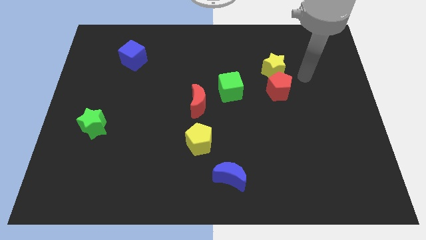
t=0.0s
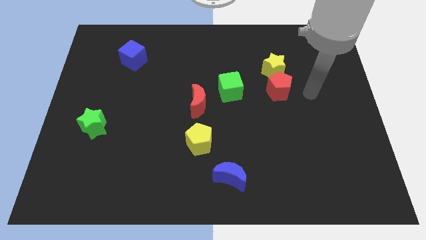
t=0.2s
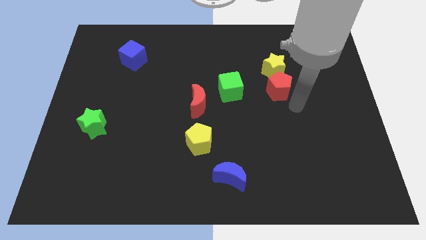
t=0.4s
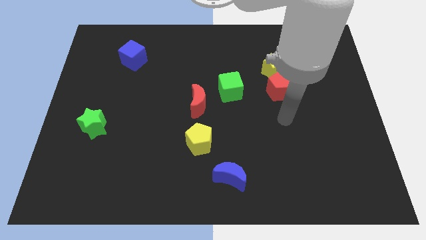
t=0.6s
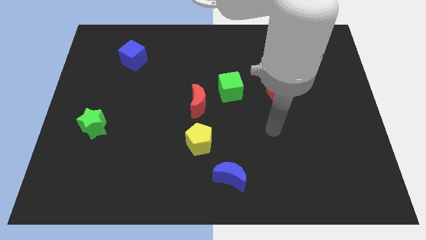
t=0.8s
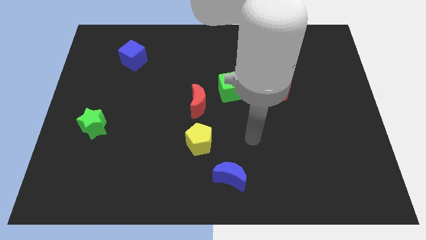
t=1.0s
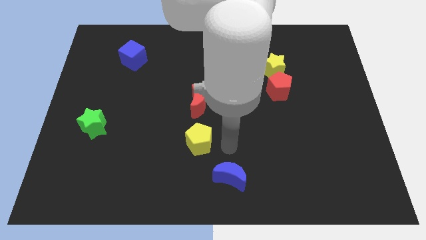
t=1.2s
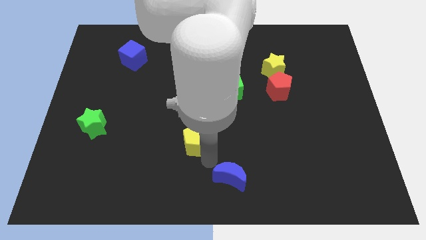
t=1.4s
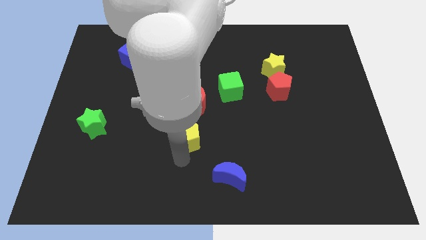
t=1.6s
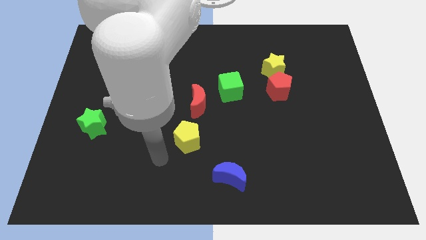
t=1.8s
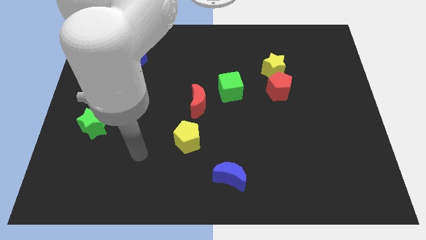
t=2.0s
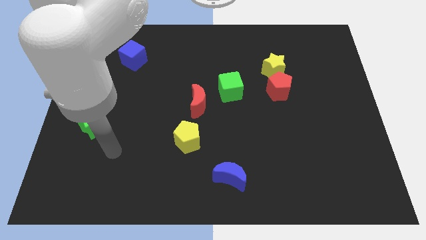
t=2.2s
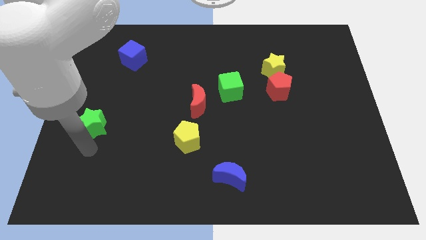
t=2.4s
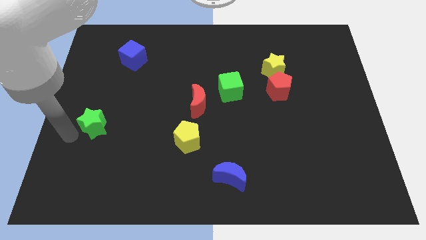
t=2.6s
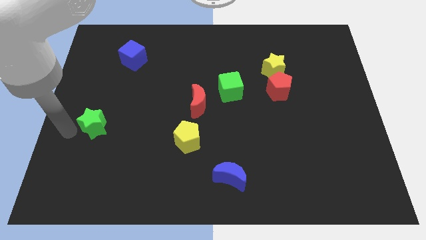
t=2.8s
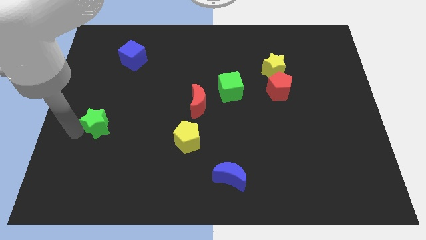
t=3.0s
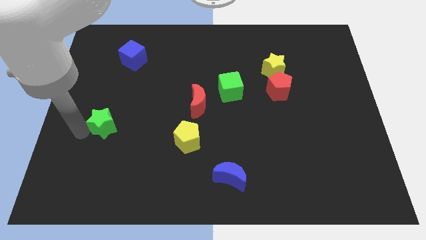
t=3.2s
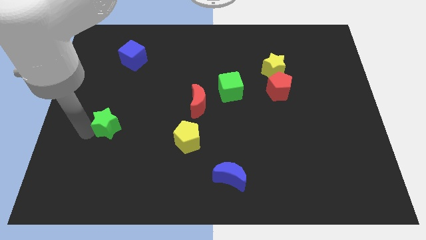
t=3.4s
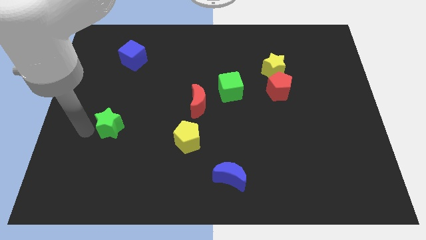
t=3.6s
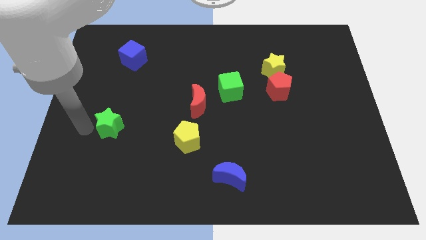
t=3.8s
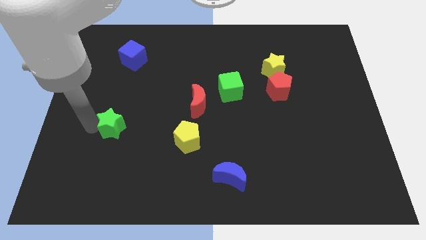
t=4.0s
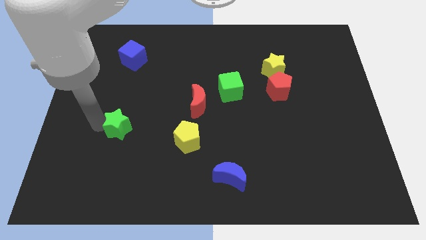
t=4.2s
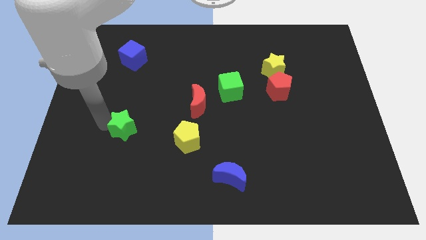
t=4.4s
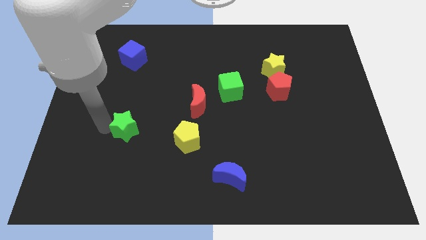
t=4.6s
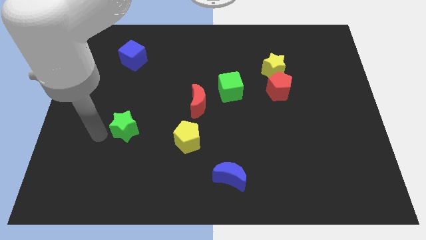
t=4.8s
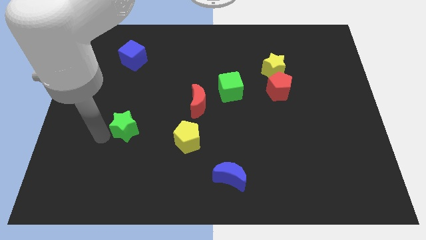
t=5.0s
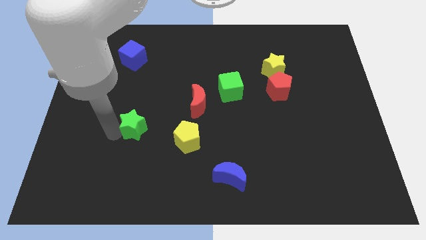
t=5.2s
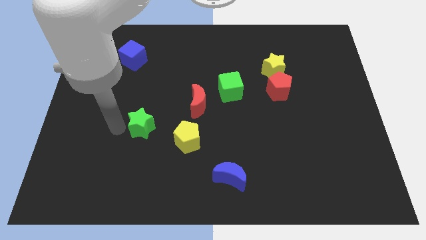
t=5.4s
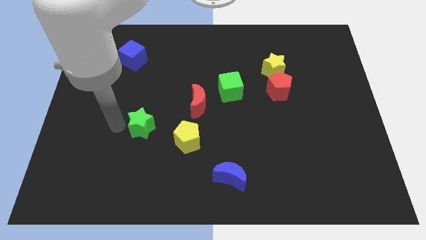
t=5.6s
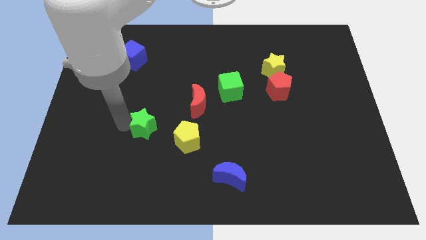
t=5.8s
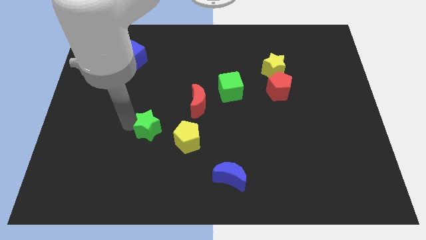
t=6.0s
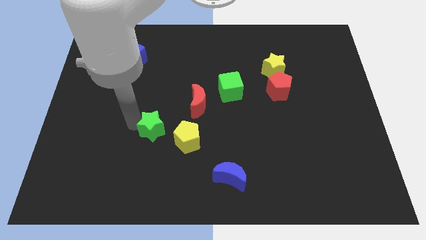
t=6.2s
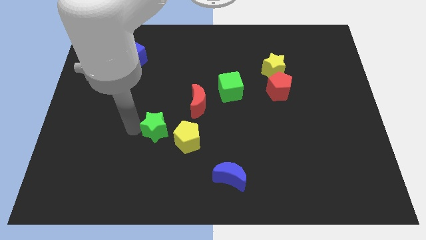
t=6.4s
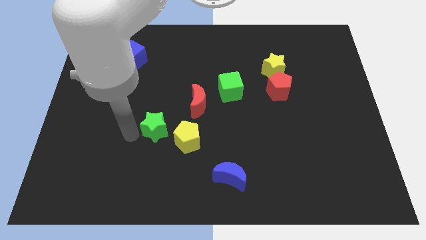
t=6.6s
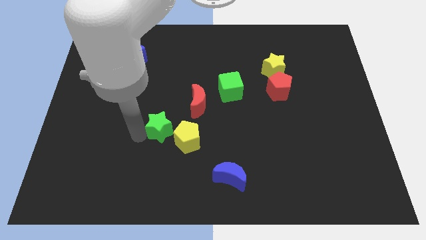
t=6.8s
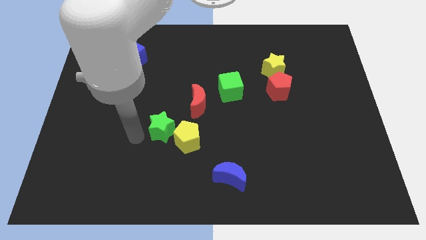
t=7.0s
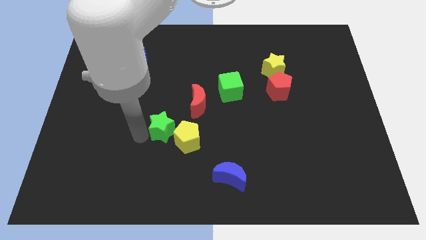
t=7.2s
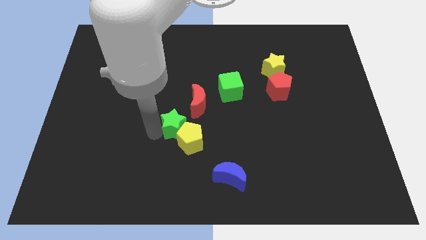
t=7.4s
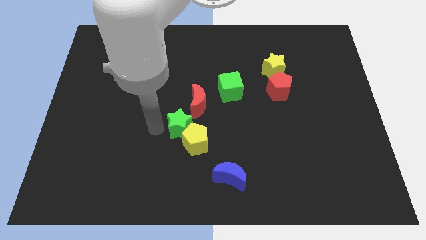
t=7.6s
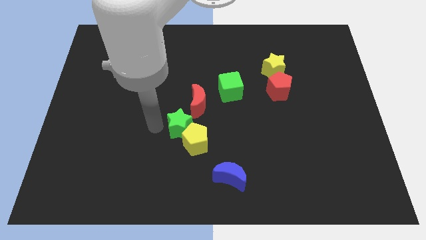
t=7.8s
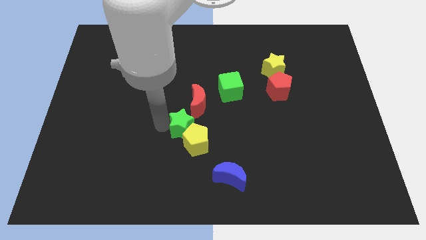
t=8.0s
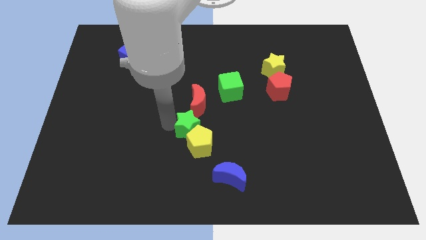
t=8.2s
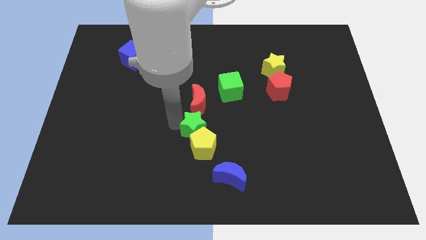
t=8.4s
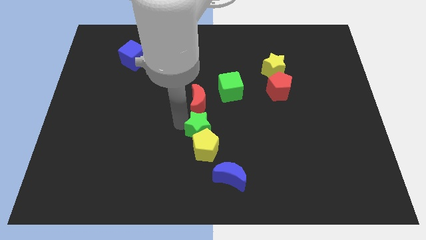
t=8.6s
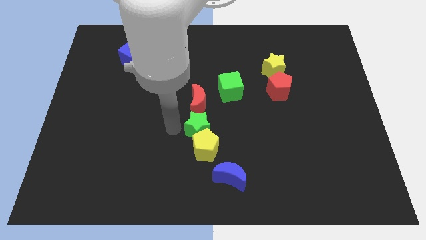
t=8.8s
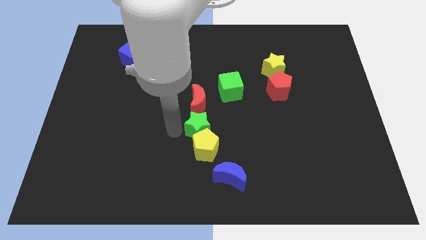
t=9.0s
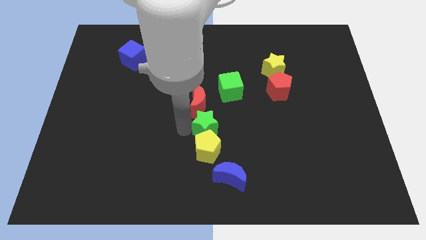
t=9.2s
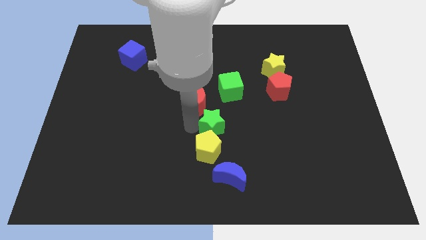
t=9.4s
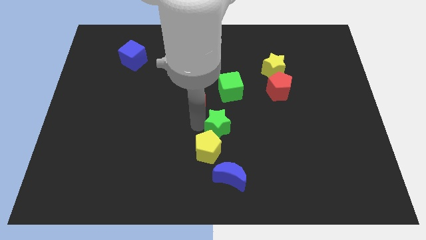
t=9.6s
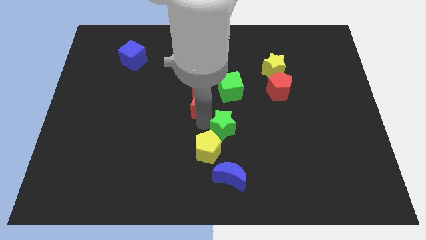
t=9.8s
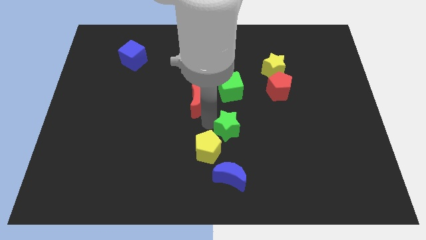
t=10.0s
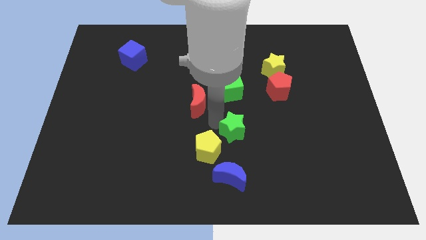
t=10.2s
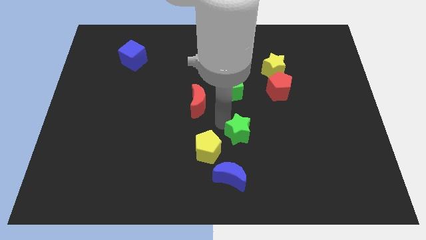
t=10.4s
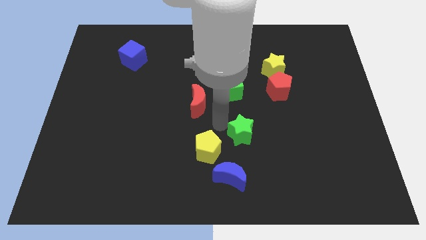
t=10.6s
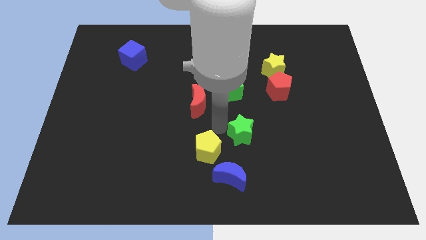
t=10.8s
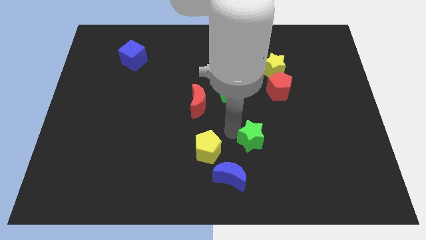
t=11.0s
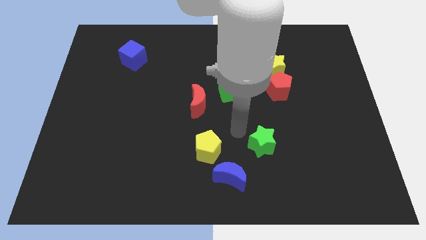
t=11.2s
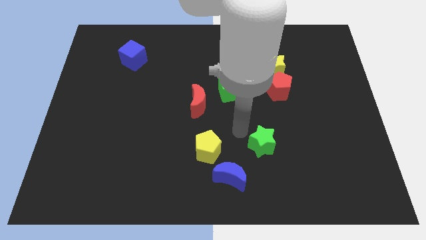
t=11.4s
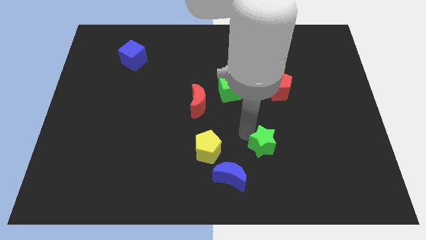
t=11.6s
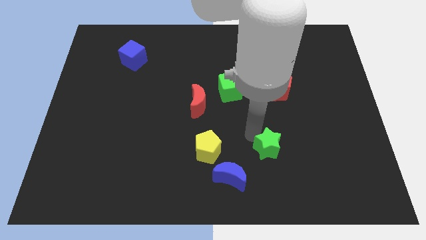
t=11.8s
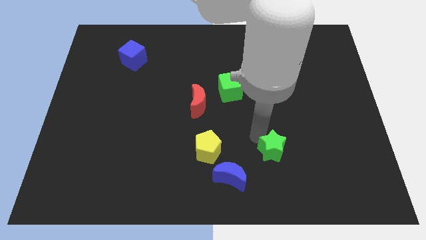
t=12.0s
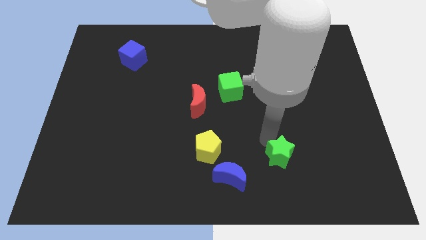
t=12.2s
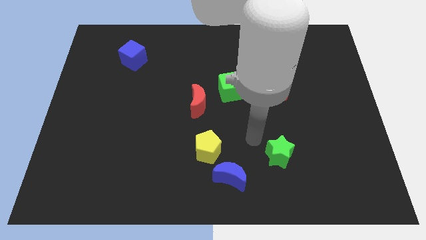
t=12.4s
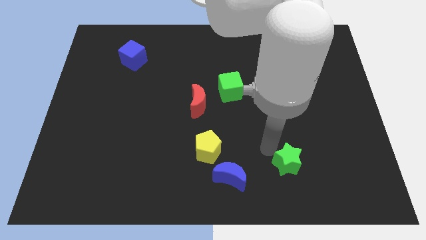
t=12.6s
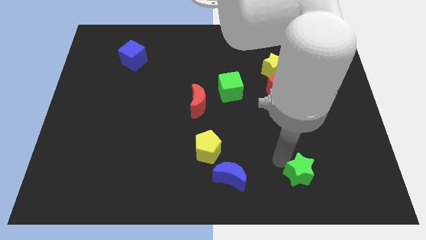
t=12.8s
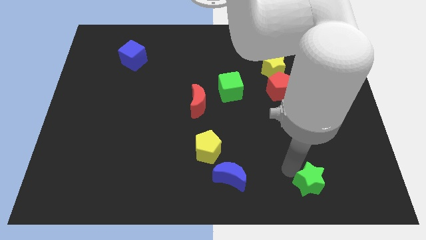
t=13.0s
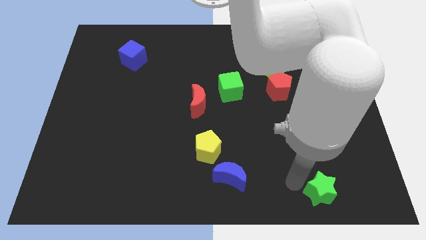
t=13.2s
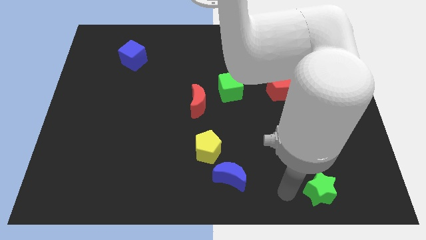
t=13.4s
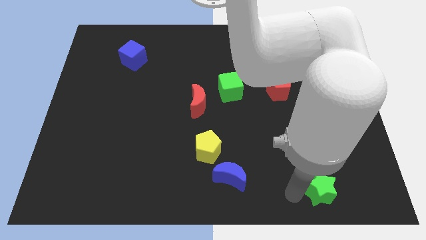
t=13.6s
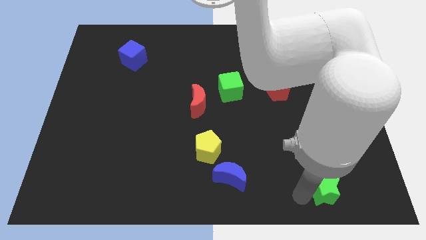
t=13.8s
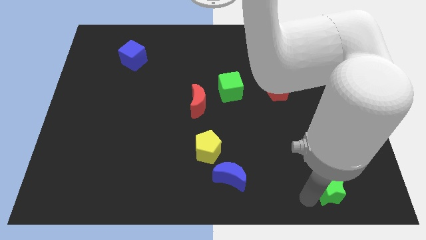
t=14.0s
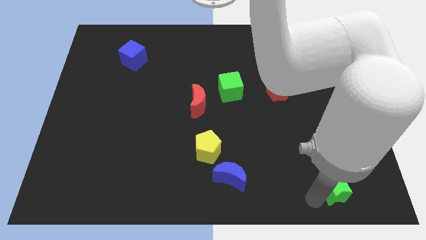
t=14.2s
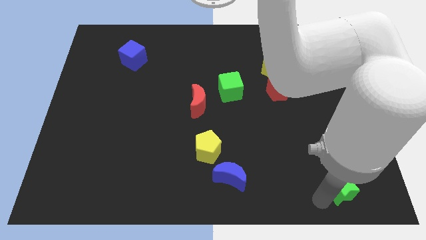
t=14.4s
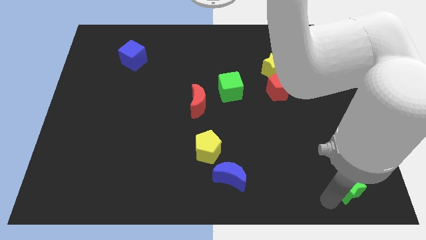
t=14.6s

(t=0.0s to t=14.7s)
slide the green star to the lower right corner
